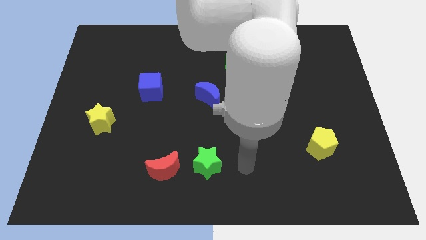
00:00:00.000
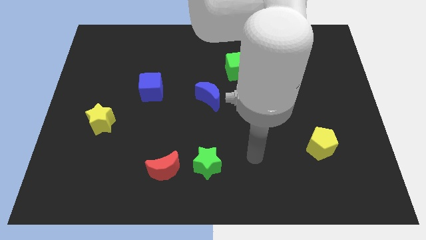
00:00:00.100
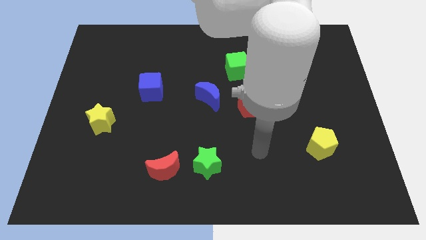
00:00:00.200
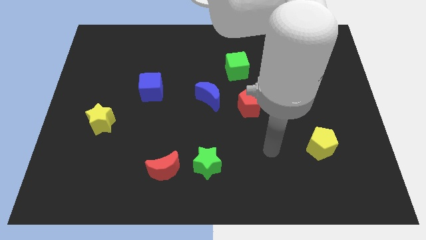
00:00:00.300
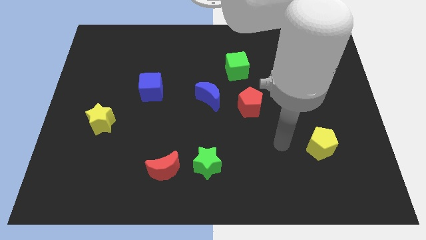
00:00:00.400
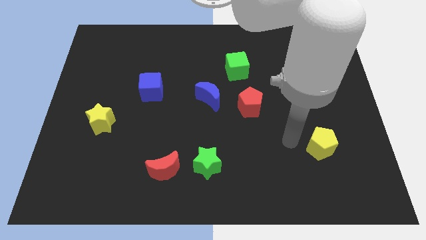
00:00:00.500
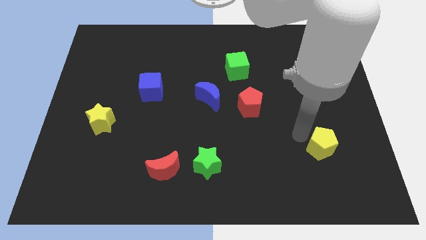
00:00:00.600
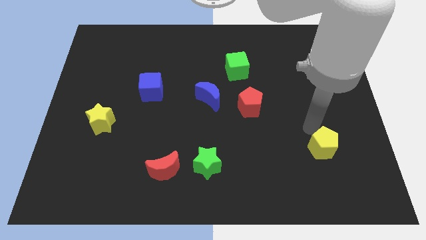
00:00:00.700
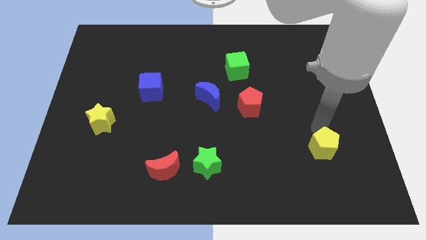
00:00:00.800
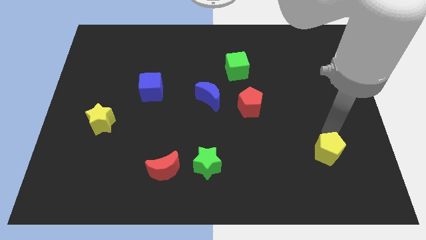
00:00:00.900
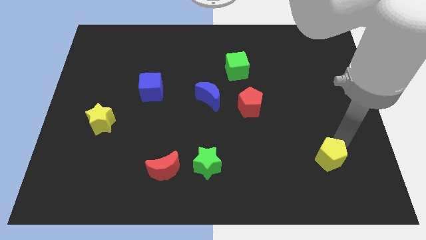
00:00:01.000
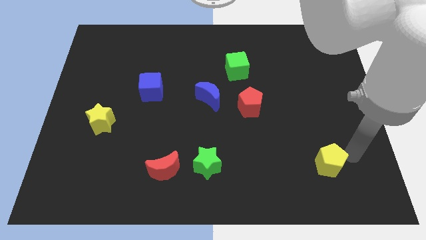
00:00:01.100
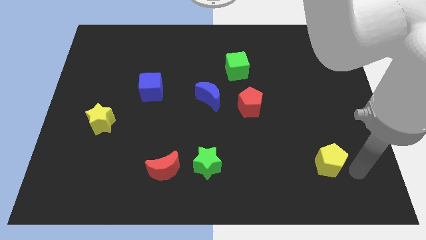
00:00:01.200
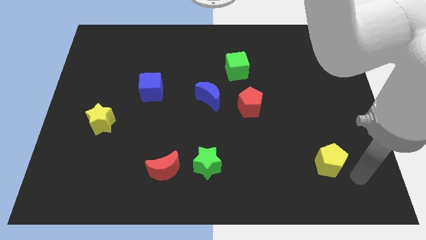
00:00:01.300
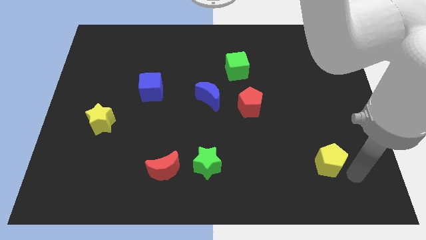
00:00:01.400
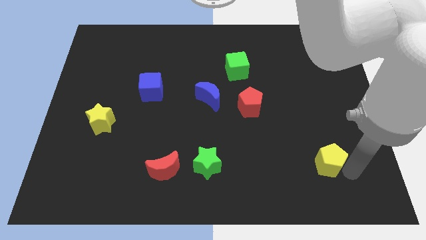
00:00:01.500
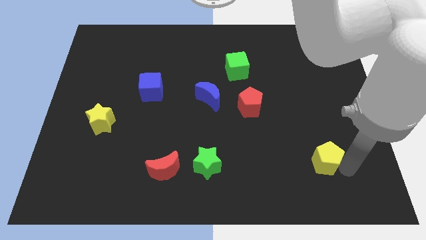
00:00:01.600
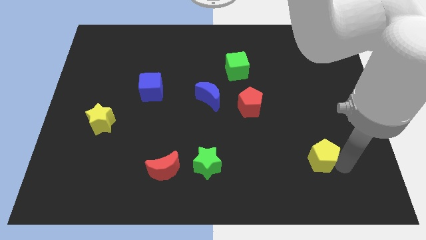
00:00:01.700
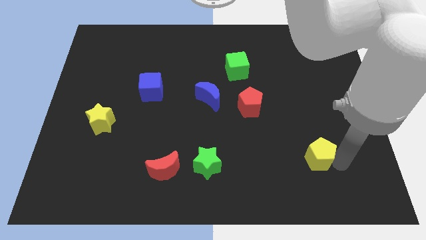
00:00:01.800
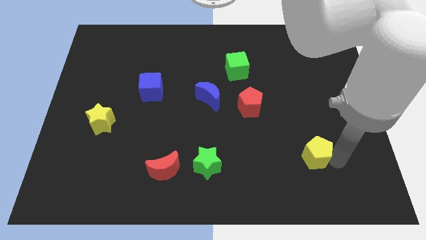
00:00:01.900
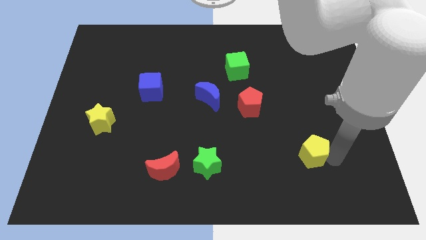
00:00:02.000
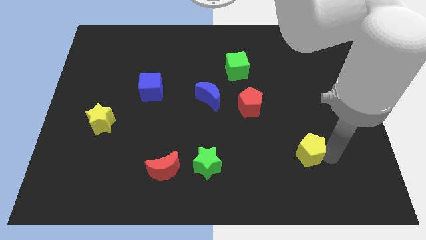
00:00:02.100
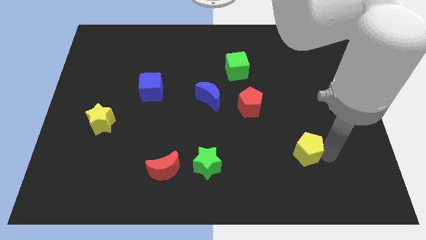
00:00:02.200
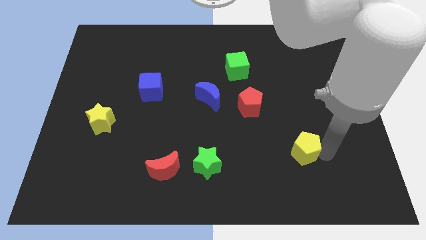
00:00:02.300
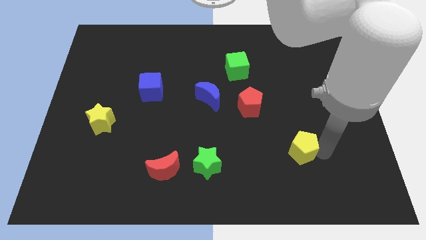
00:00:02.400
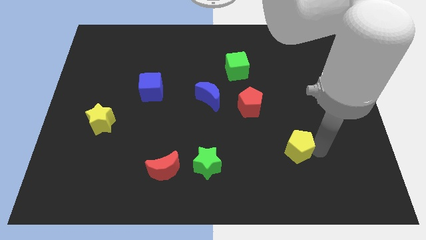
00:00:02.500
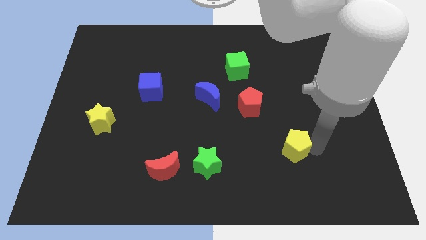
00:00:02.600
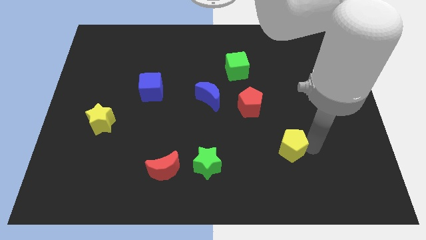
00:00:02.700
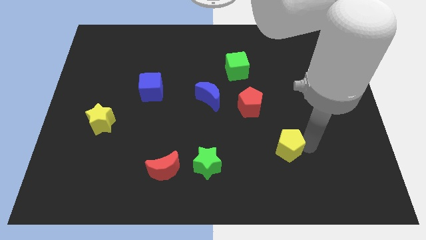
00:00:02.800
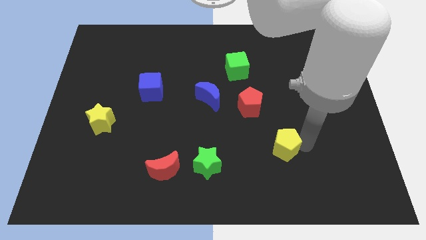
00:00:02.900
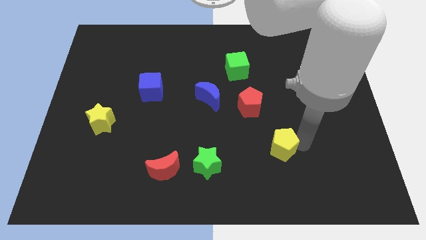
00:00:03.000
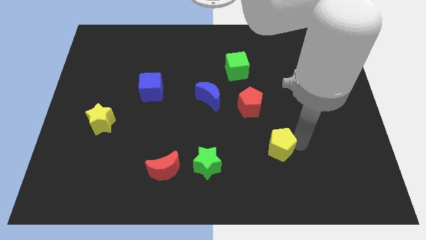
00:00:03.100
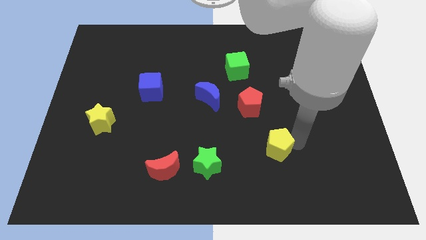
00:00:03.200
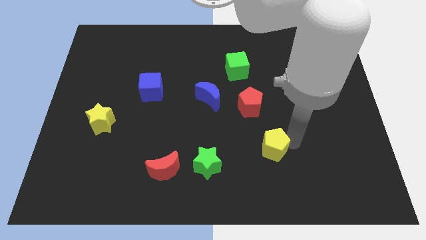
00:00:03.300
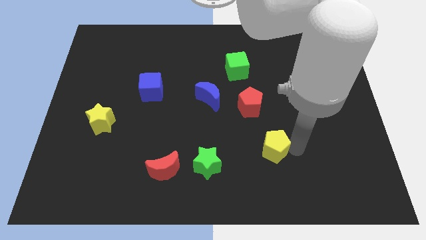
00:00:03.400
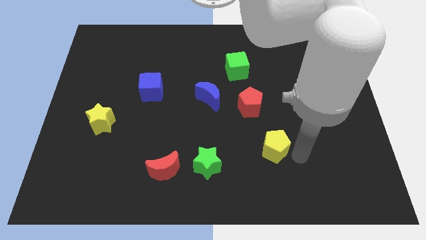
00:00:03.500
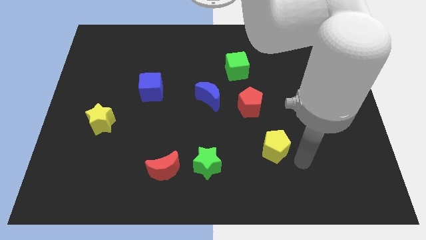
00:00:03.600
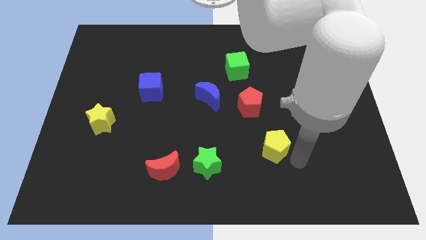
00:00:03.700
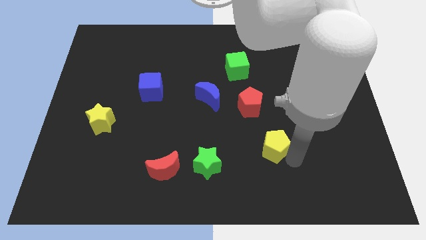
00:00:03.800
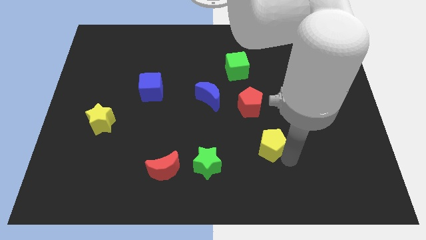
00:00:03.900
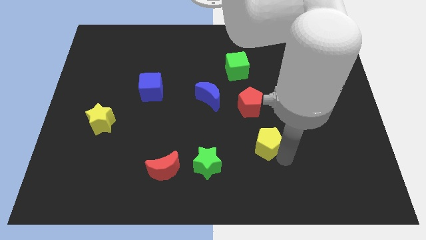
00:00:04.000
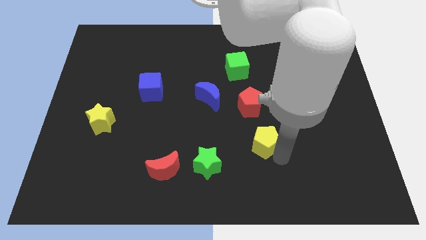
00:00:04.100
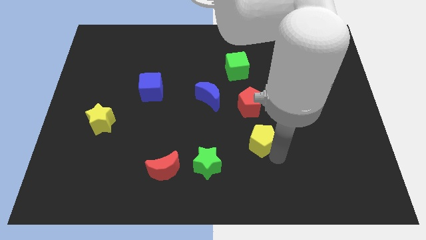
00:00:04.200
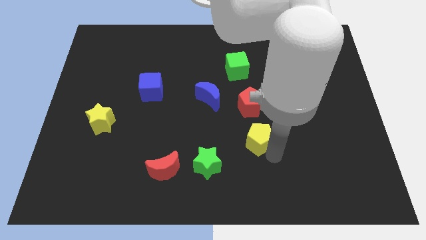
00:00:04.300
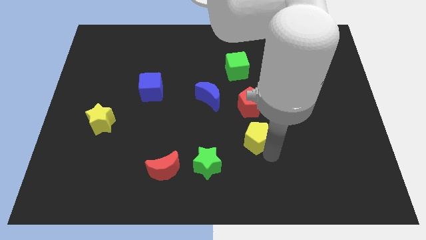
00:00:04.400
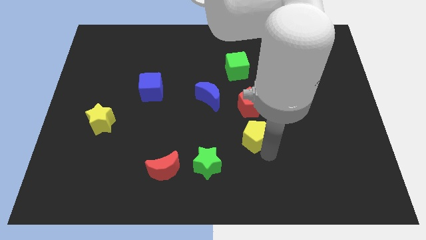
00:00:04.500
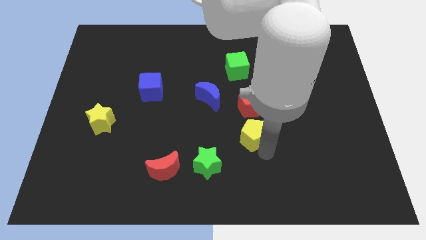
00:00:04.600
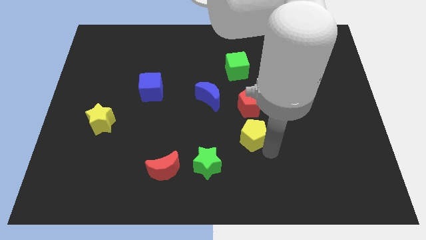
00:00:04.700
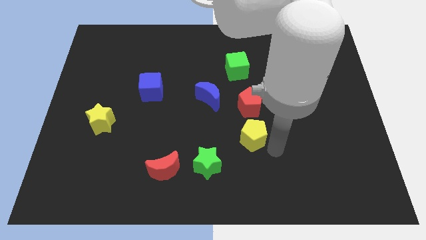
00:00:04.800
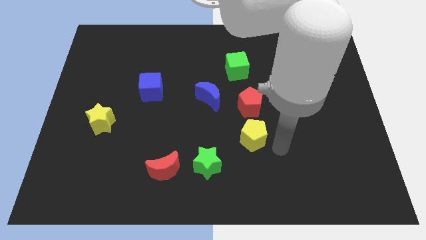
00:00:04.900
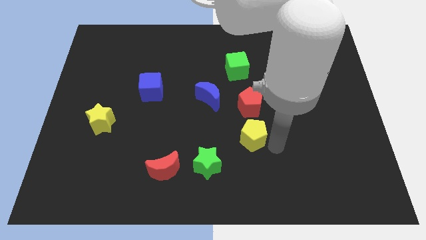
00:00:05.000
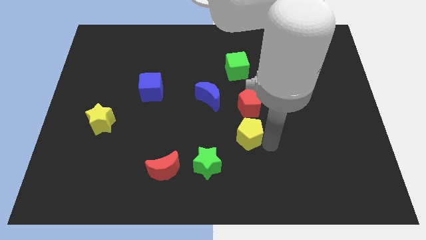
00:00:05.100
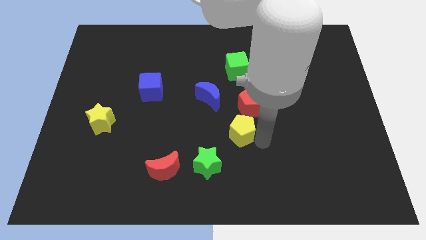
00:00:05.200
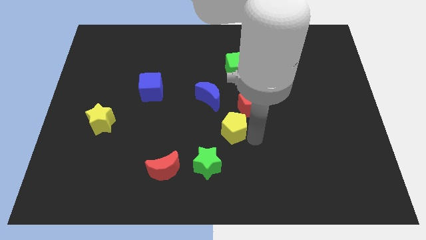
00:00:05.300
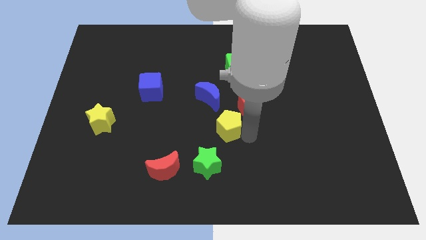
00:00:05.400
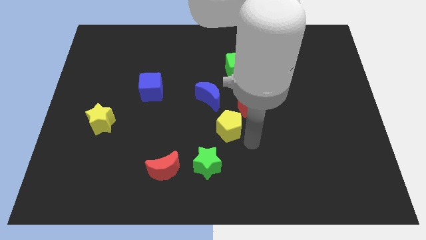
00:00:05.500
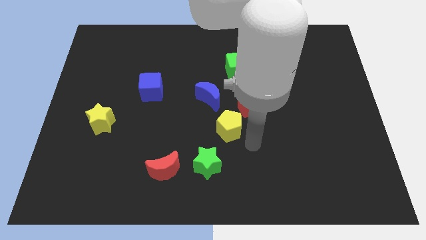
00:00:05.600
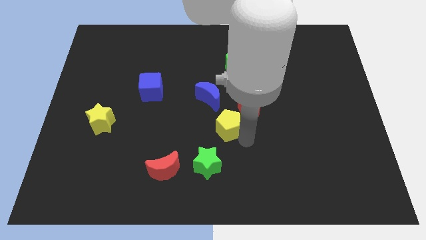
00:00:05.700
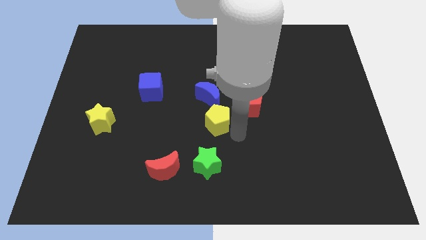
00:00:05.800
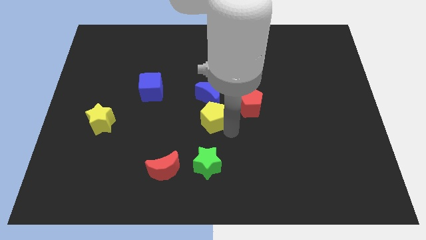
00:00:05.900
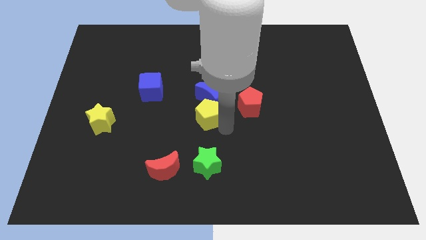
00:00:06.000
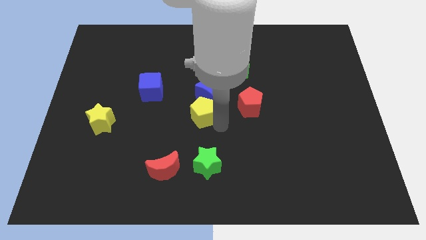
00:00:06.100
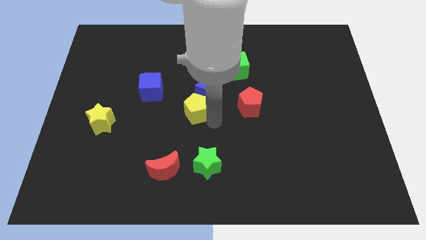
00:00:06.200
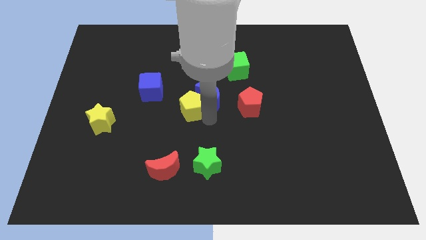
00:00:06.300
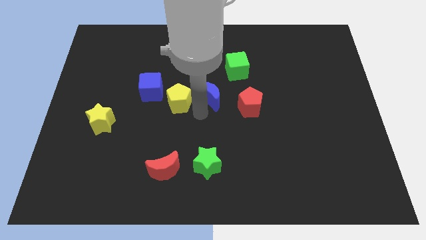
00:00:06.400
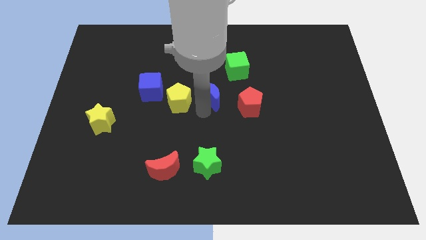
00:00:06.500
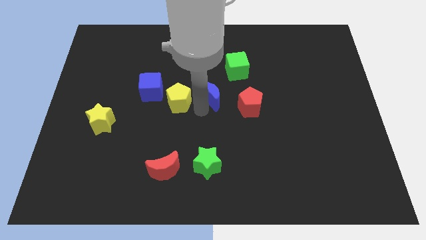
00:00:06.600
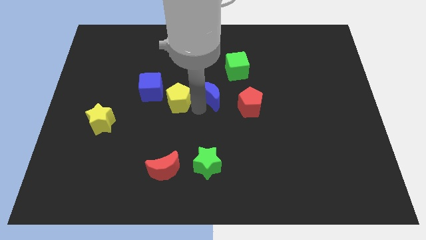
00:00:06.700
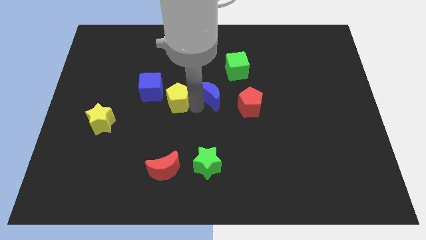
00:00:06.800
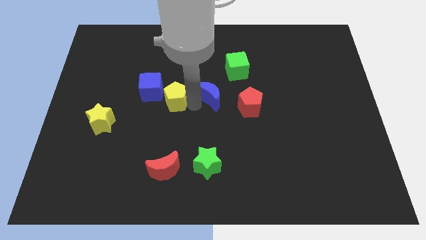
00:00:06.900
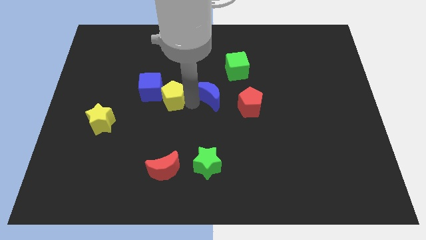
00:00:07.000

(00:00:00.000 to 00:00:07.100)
put the yellow pentagon to the blue cube
